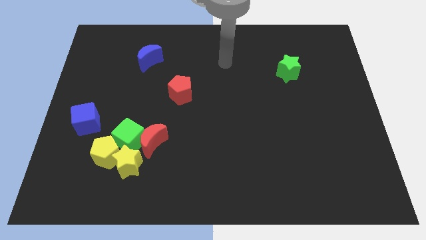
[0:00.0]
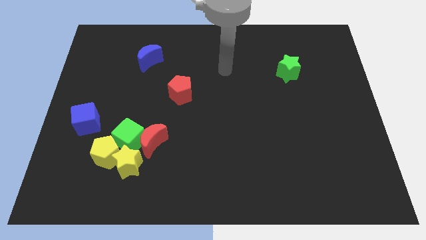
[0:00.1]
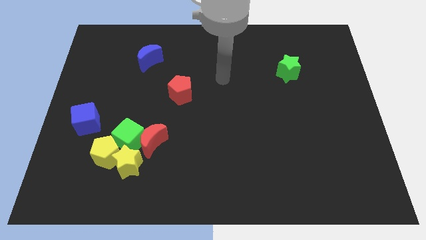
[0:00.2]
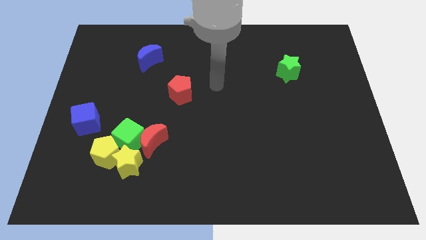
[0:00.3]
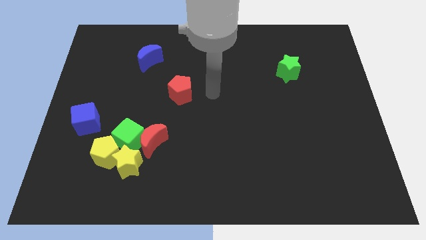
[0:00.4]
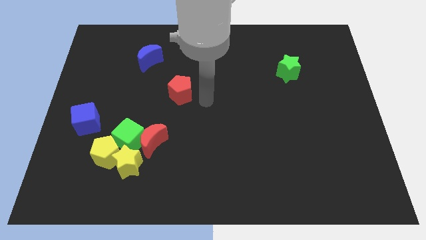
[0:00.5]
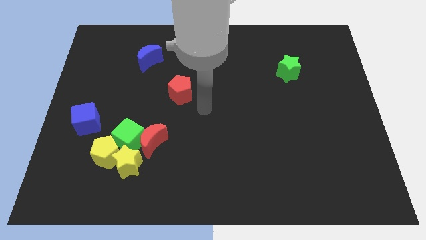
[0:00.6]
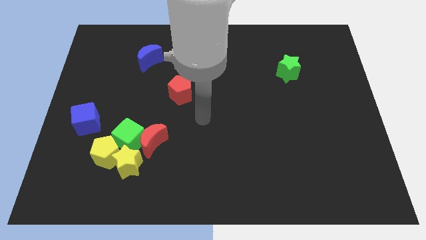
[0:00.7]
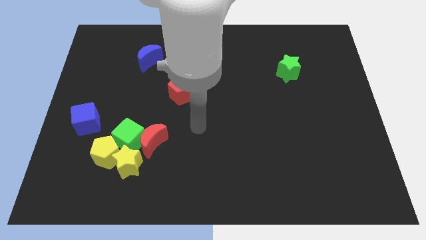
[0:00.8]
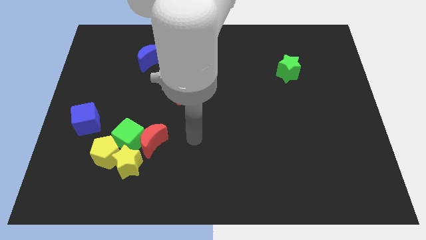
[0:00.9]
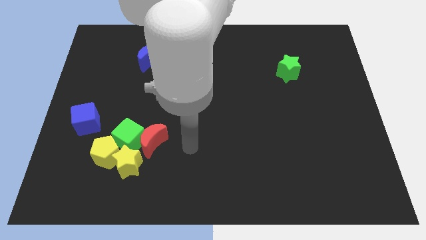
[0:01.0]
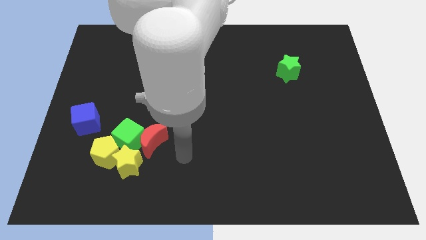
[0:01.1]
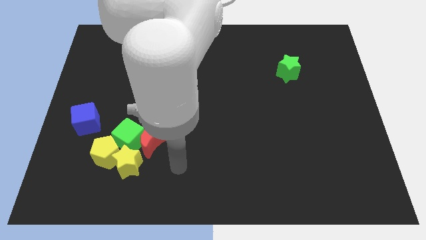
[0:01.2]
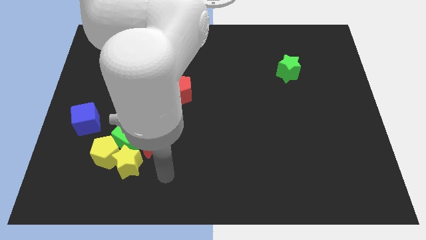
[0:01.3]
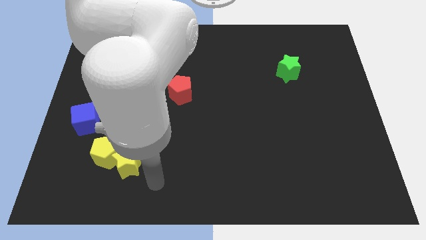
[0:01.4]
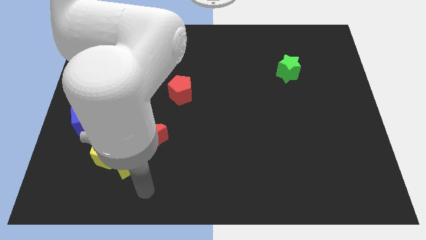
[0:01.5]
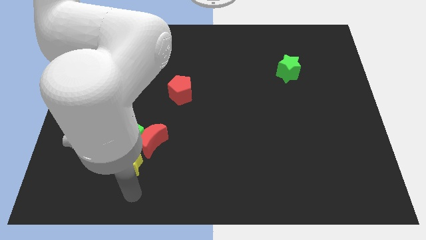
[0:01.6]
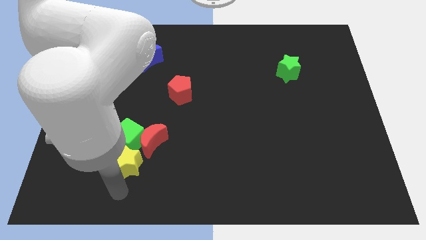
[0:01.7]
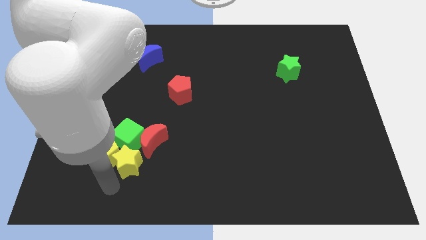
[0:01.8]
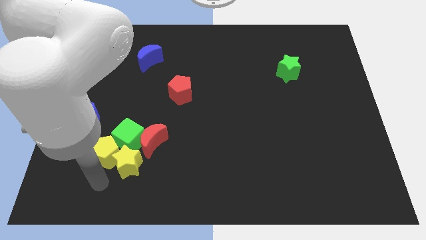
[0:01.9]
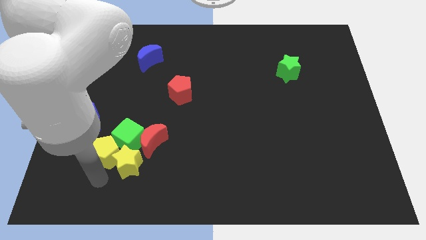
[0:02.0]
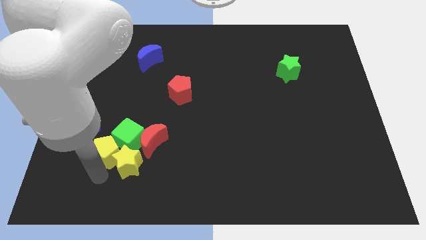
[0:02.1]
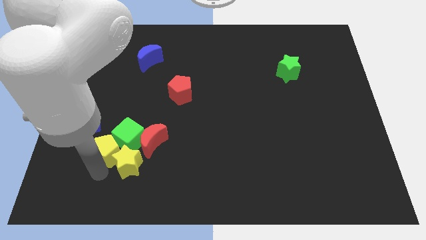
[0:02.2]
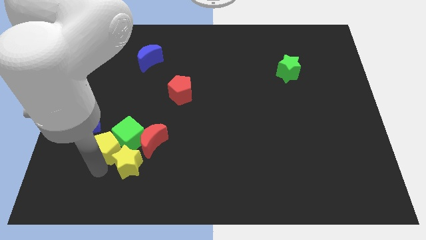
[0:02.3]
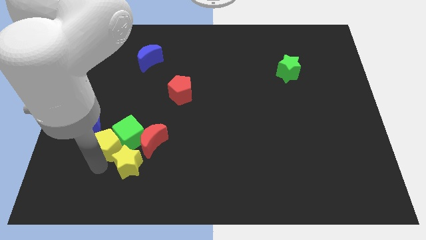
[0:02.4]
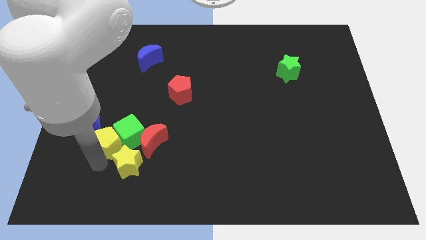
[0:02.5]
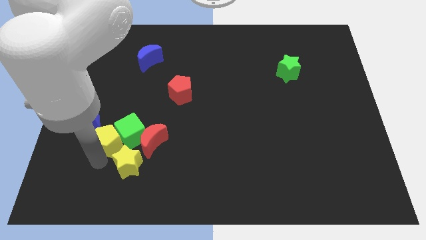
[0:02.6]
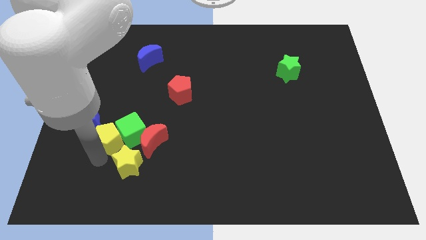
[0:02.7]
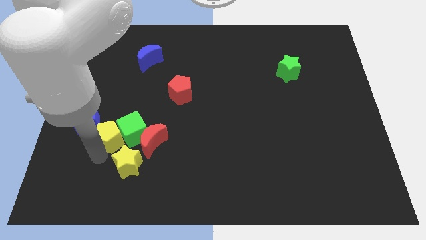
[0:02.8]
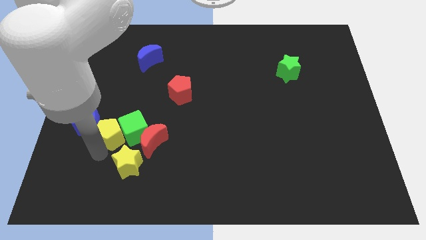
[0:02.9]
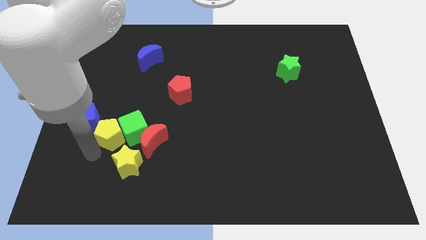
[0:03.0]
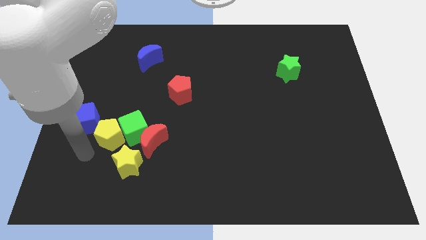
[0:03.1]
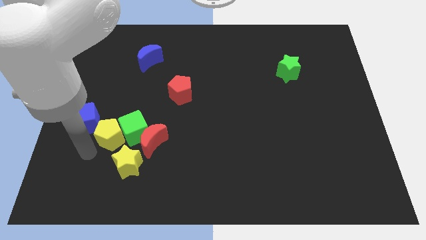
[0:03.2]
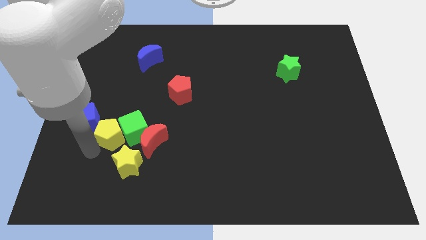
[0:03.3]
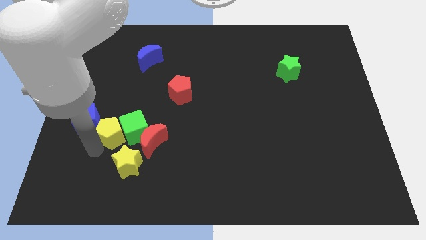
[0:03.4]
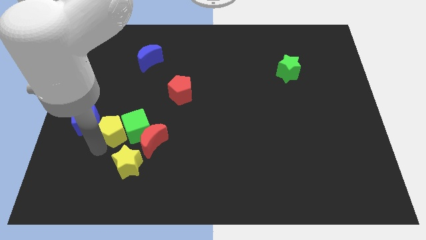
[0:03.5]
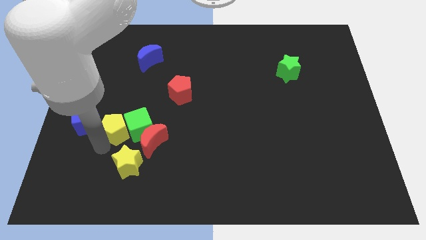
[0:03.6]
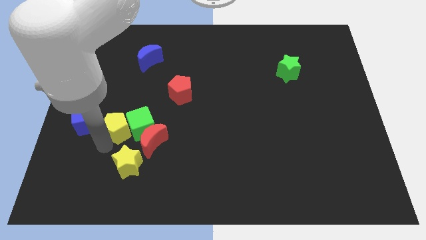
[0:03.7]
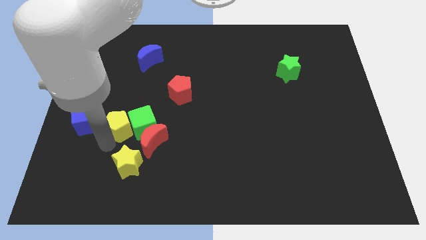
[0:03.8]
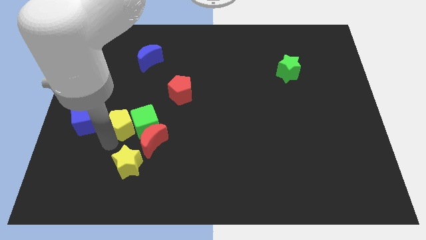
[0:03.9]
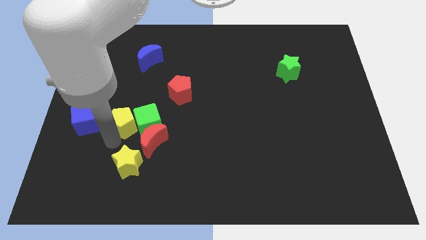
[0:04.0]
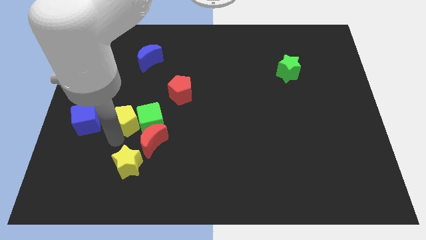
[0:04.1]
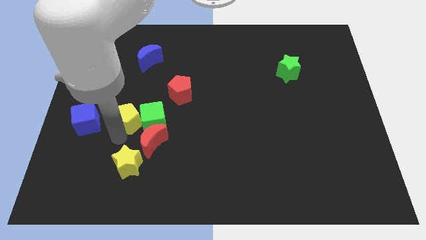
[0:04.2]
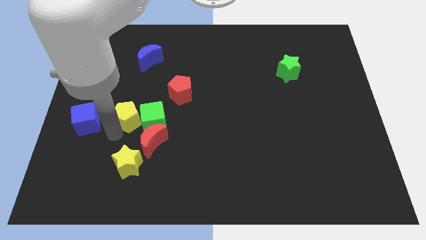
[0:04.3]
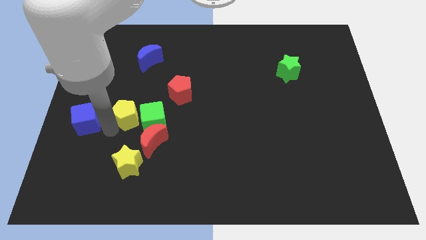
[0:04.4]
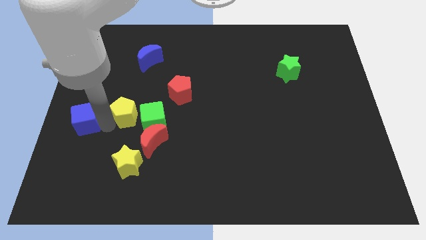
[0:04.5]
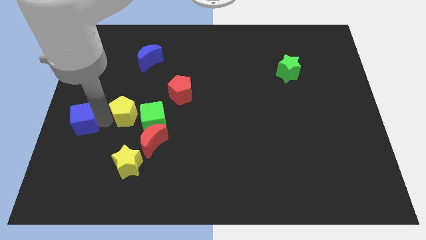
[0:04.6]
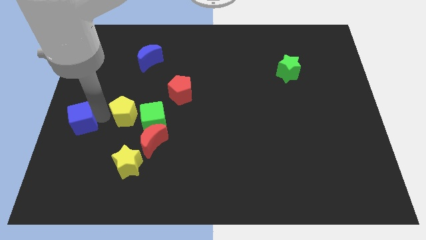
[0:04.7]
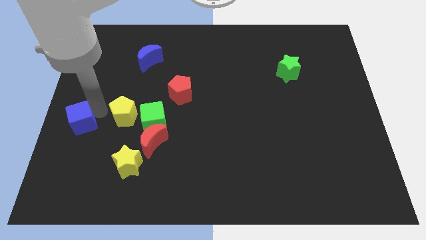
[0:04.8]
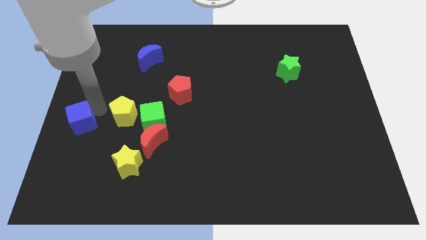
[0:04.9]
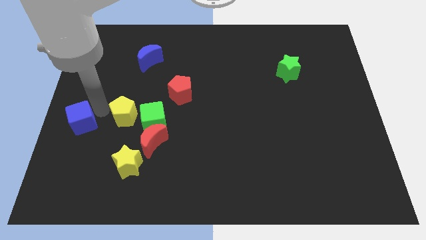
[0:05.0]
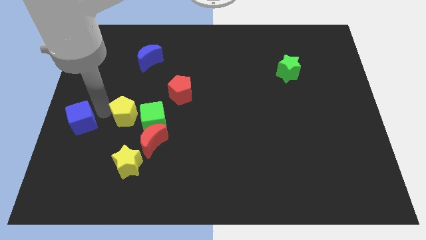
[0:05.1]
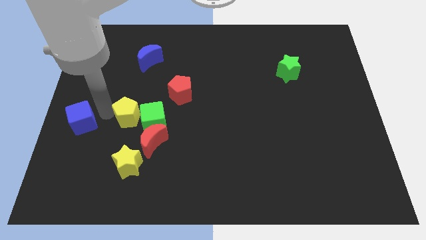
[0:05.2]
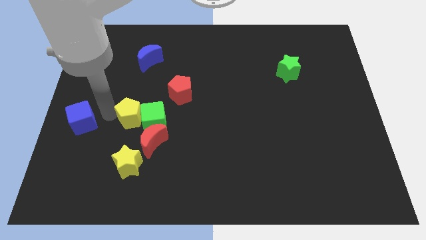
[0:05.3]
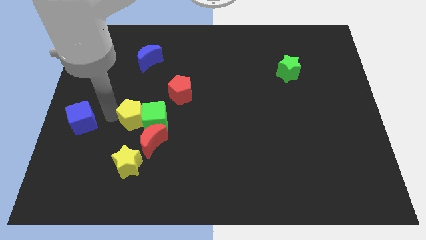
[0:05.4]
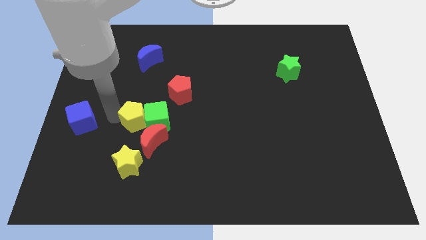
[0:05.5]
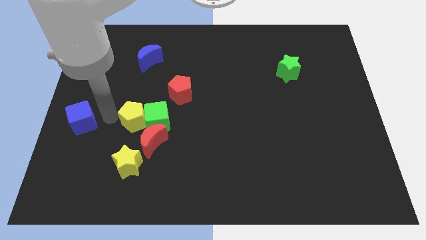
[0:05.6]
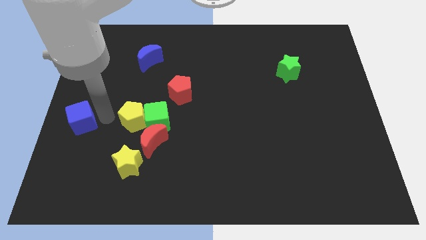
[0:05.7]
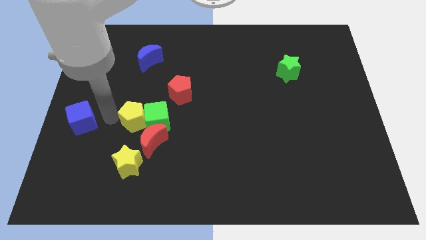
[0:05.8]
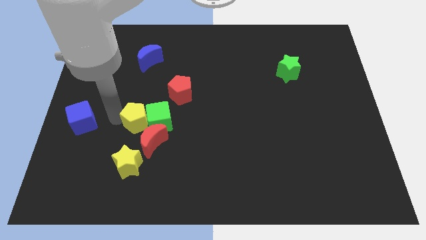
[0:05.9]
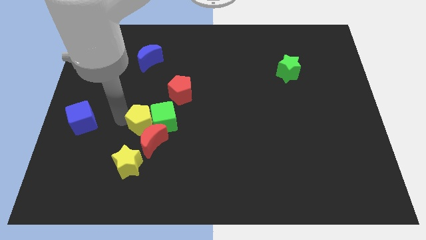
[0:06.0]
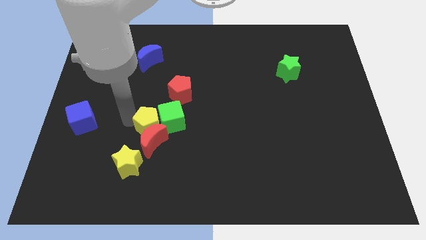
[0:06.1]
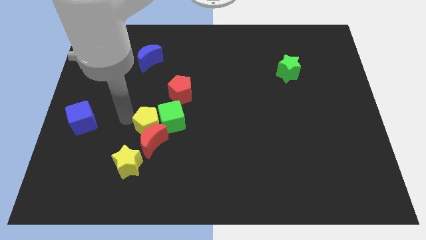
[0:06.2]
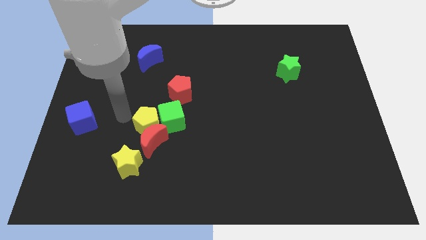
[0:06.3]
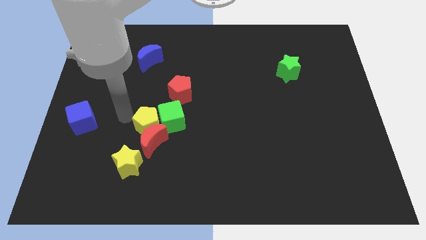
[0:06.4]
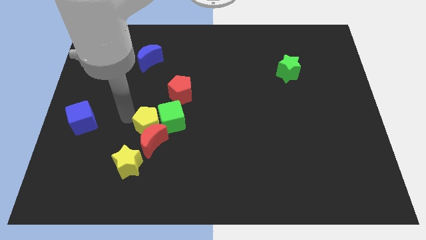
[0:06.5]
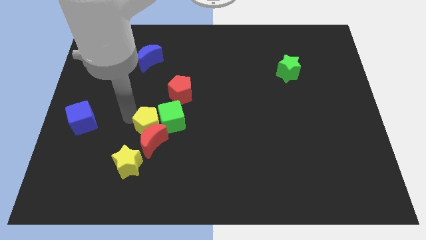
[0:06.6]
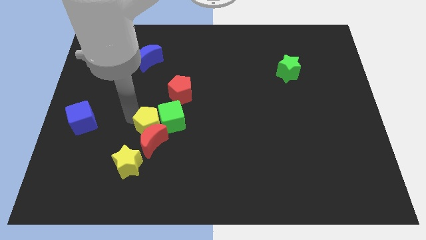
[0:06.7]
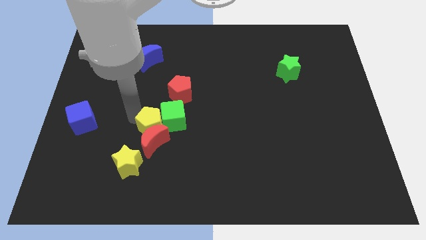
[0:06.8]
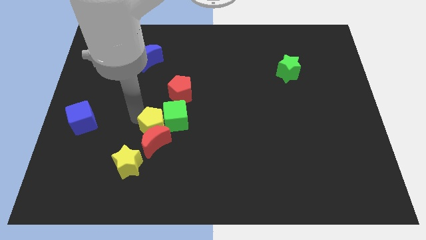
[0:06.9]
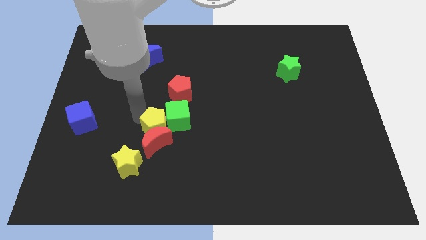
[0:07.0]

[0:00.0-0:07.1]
push the yellow pentagon to the right a little

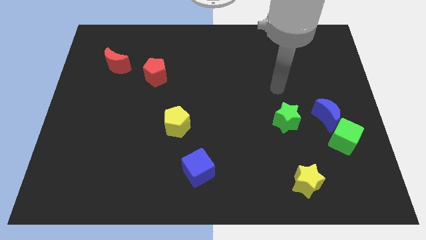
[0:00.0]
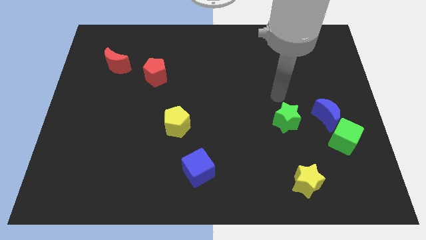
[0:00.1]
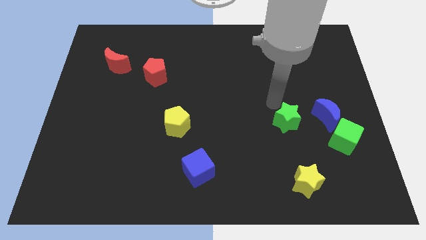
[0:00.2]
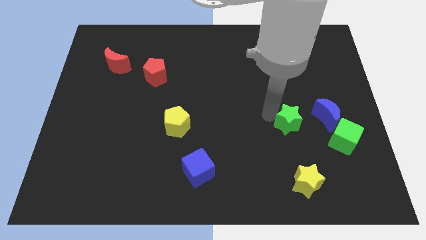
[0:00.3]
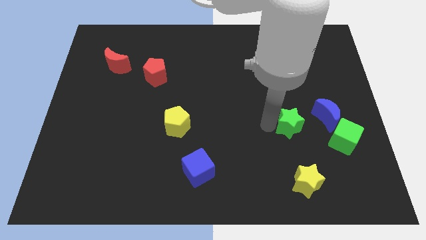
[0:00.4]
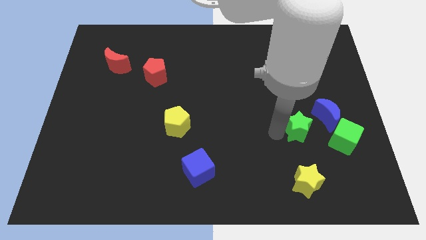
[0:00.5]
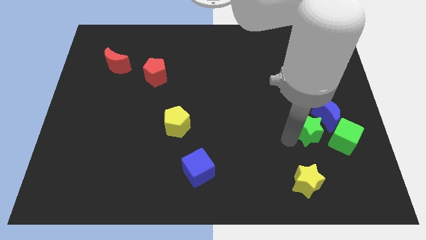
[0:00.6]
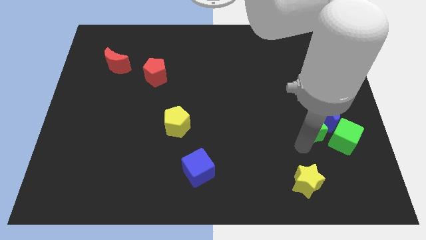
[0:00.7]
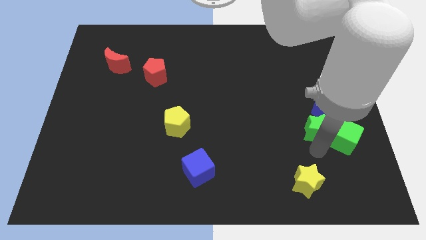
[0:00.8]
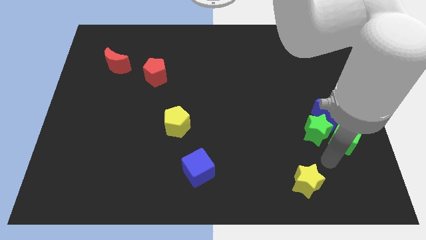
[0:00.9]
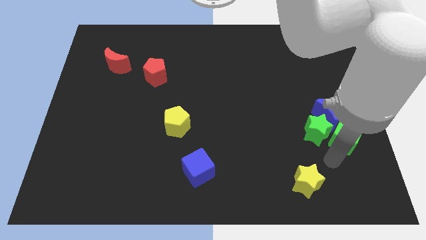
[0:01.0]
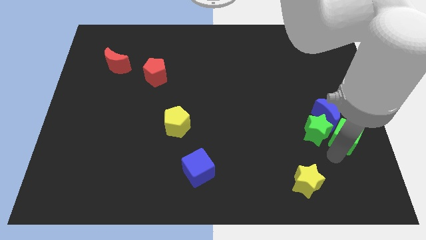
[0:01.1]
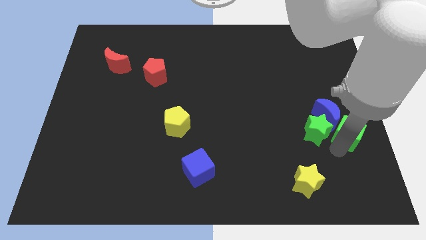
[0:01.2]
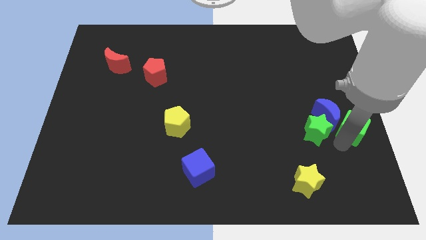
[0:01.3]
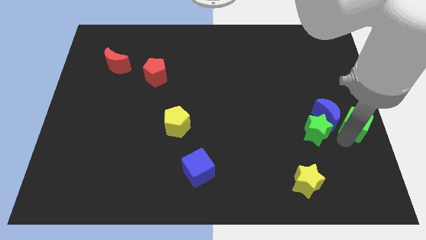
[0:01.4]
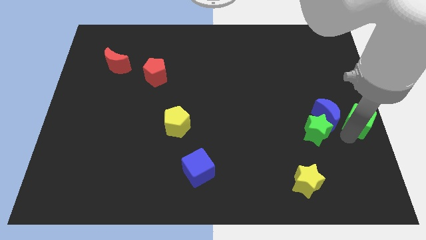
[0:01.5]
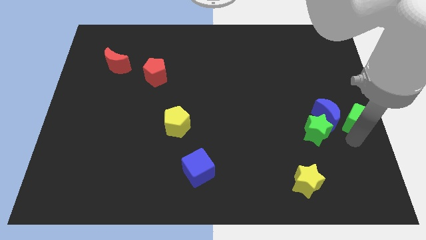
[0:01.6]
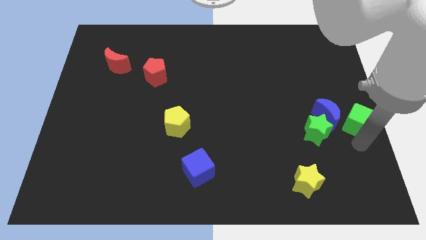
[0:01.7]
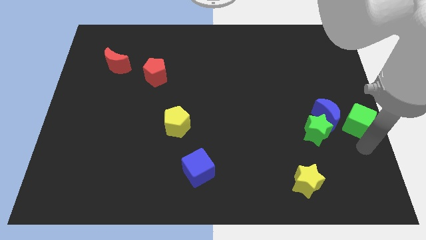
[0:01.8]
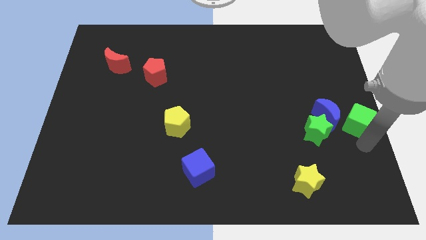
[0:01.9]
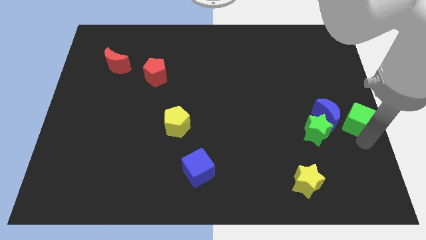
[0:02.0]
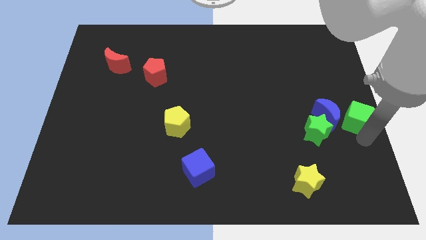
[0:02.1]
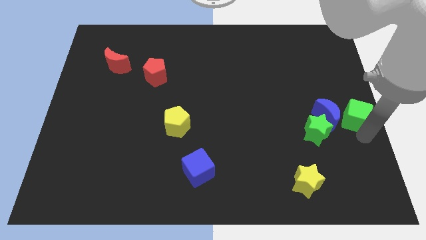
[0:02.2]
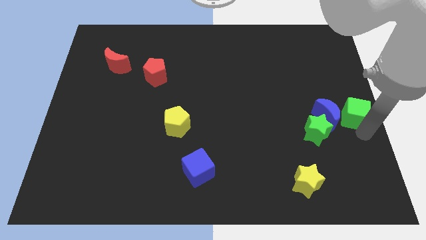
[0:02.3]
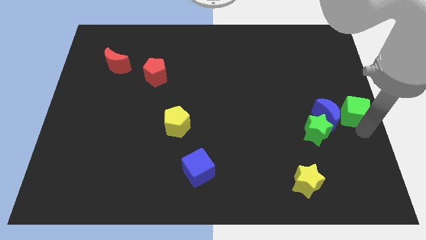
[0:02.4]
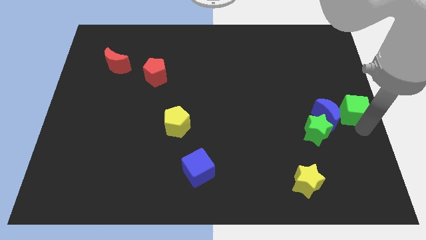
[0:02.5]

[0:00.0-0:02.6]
move the green cube upwards slightly
